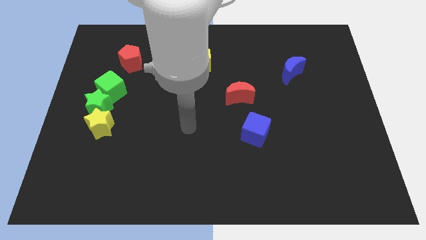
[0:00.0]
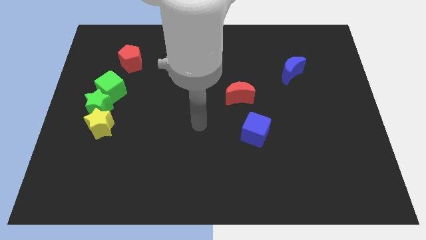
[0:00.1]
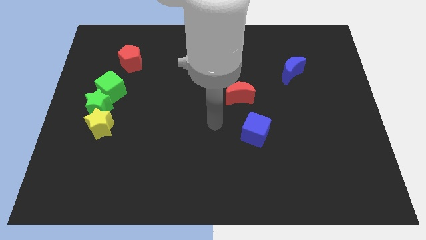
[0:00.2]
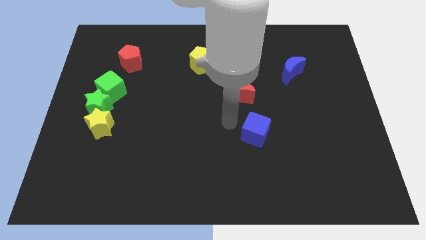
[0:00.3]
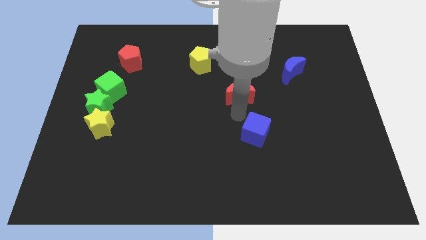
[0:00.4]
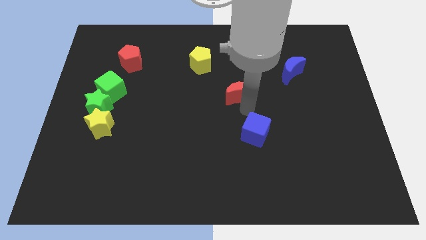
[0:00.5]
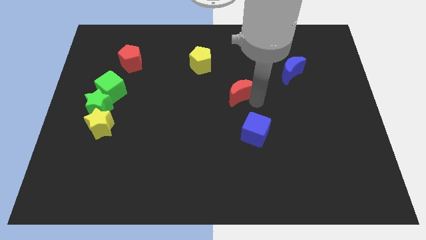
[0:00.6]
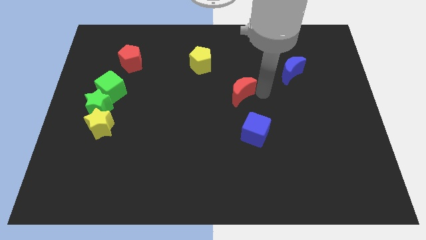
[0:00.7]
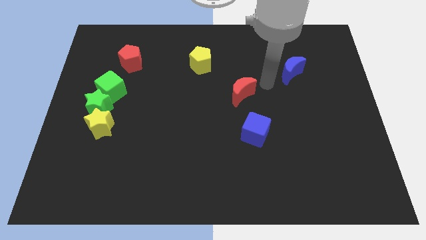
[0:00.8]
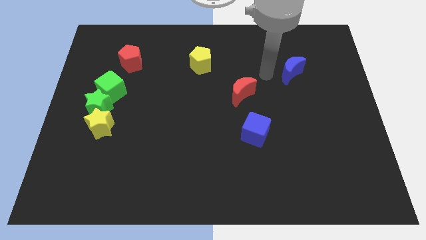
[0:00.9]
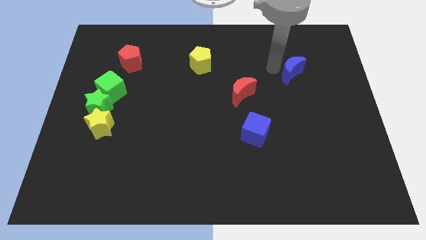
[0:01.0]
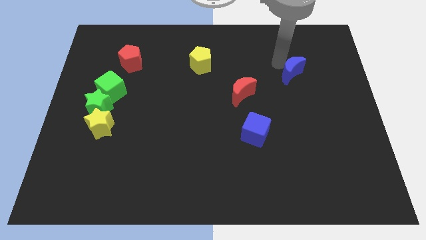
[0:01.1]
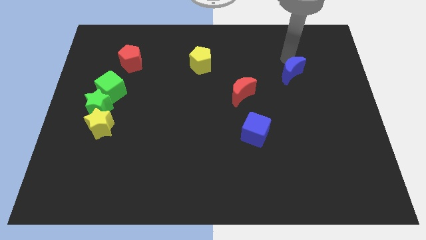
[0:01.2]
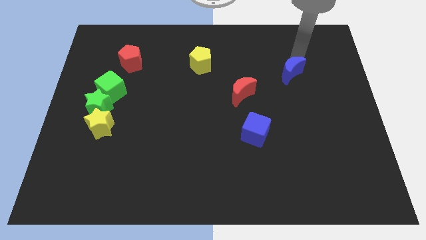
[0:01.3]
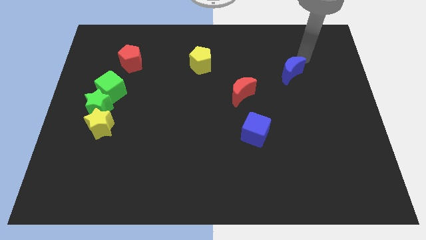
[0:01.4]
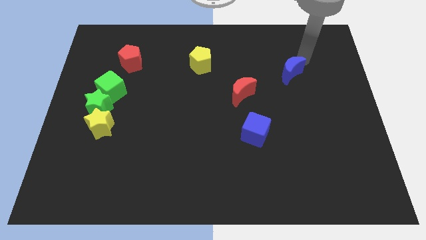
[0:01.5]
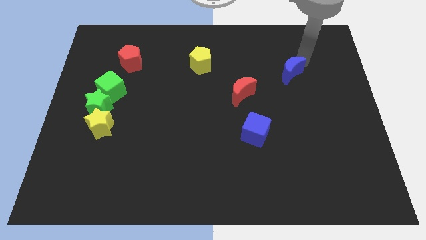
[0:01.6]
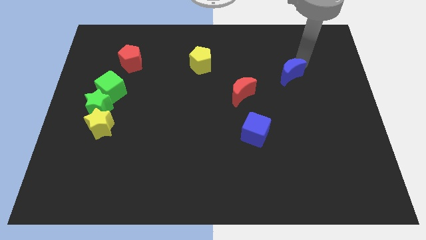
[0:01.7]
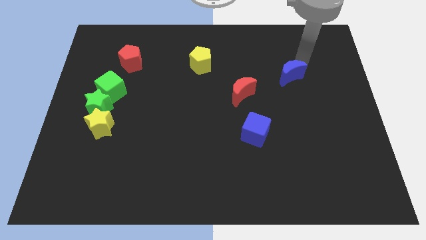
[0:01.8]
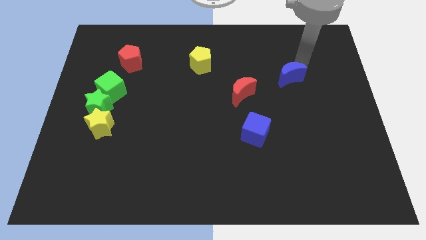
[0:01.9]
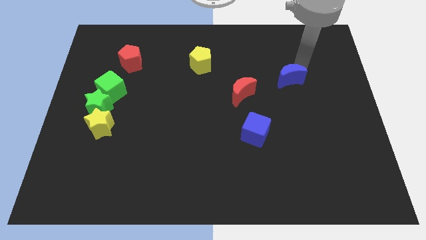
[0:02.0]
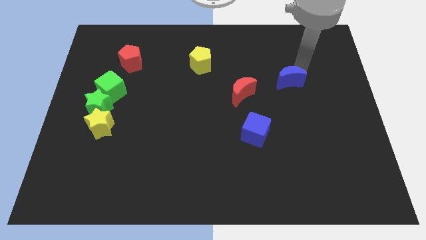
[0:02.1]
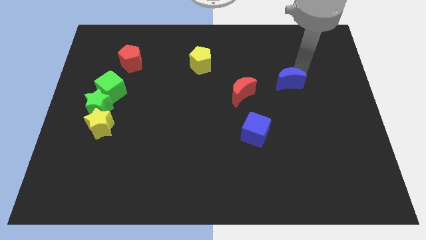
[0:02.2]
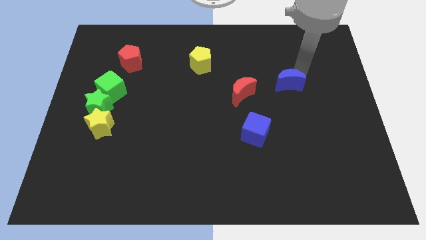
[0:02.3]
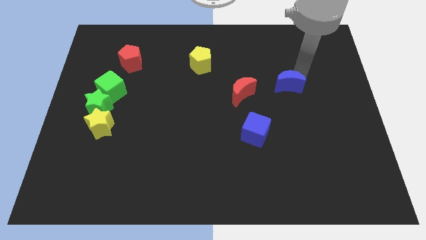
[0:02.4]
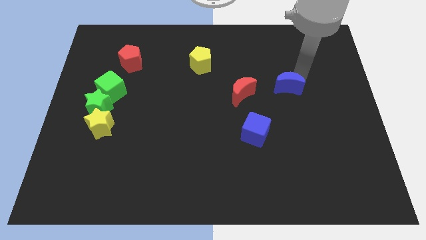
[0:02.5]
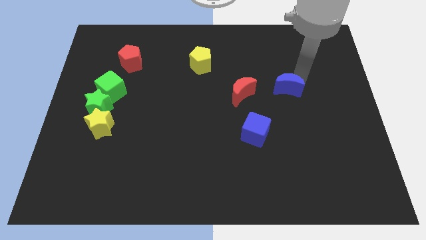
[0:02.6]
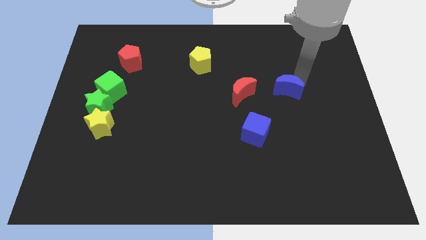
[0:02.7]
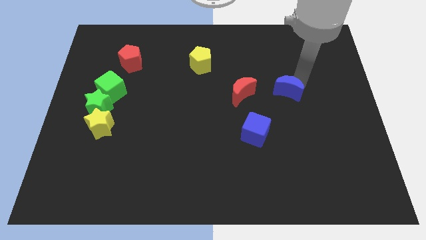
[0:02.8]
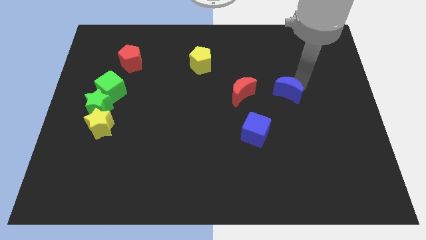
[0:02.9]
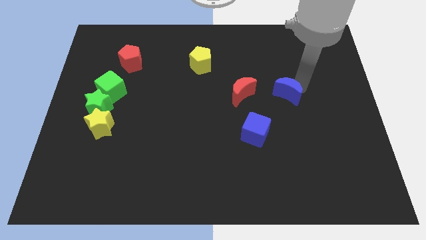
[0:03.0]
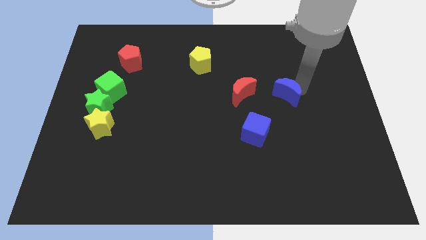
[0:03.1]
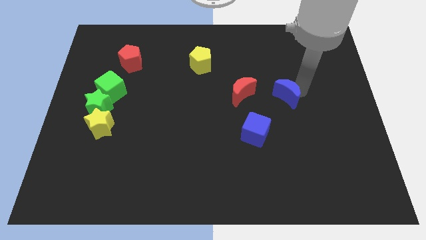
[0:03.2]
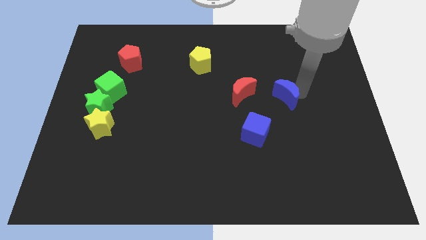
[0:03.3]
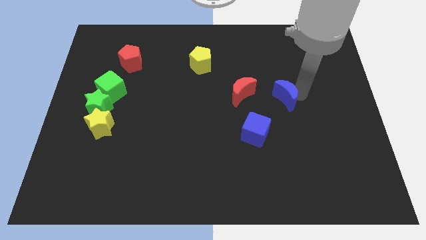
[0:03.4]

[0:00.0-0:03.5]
slightly move the blue moon down and then to the left

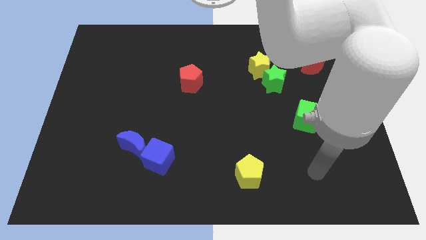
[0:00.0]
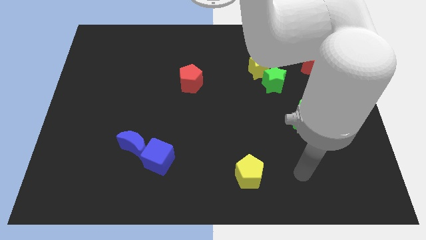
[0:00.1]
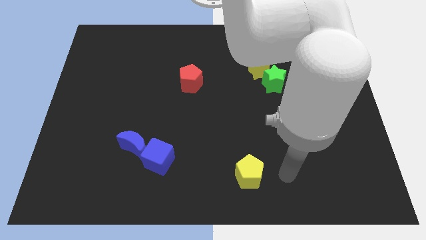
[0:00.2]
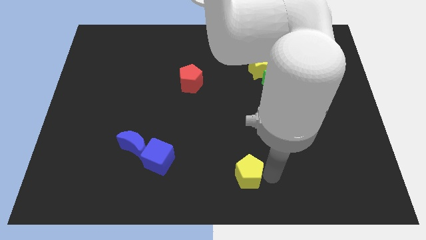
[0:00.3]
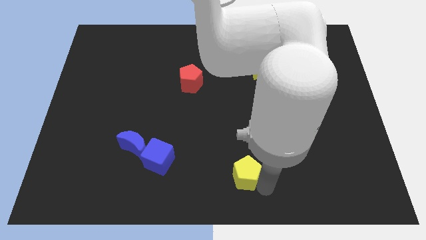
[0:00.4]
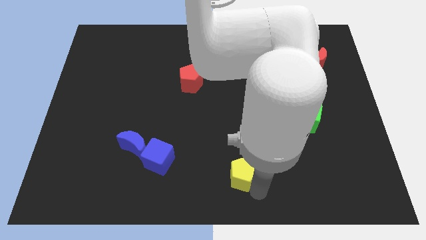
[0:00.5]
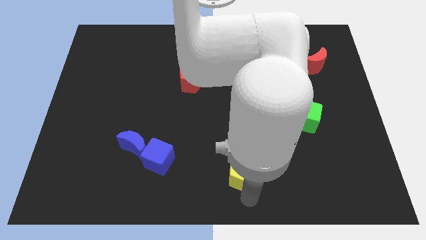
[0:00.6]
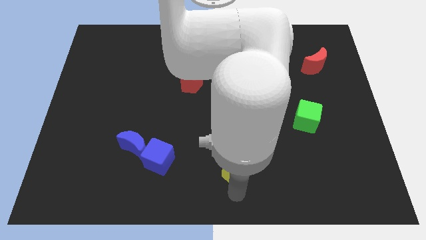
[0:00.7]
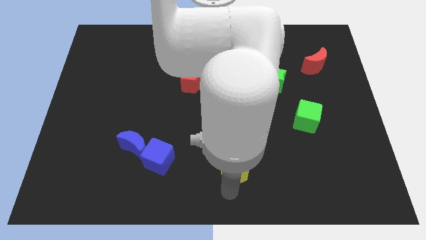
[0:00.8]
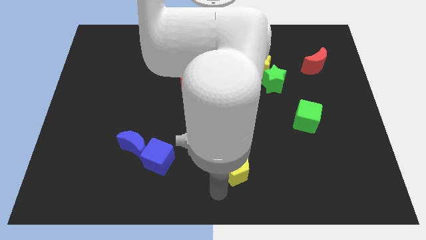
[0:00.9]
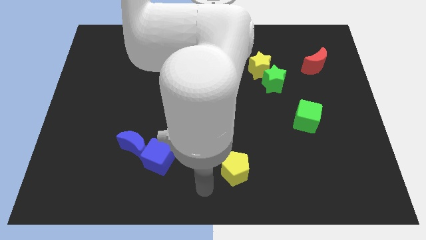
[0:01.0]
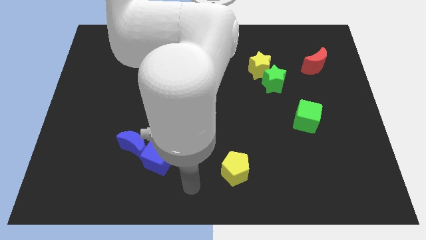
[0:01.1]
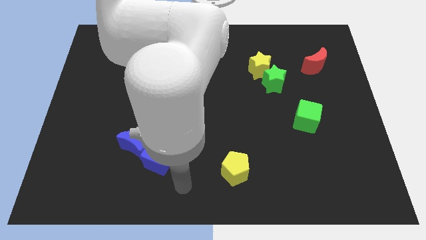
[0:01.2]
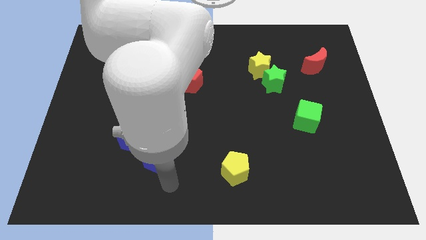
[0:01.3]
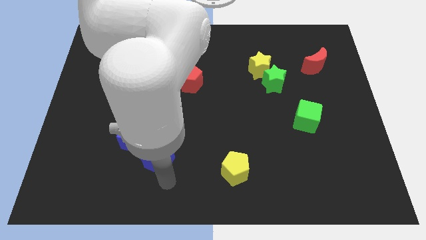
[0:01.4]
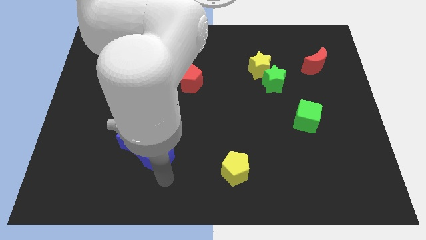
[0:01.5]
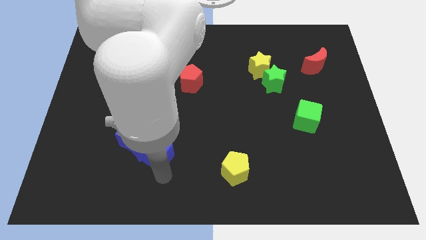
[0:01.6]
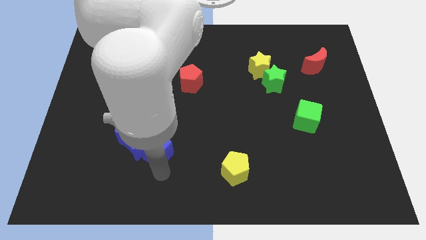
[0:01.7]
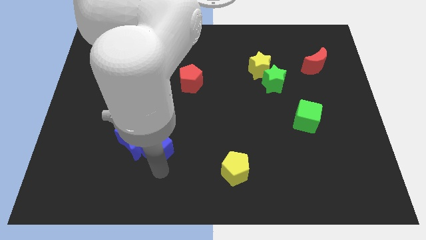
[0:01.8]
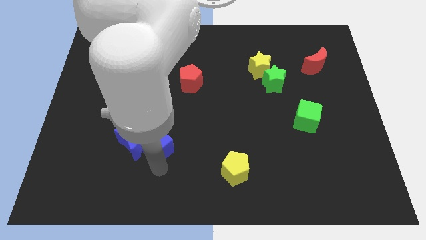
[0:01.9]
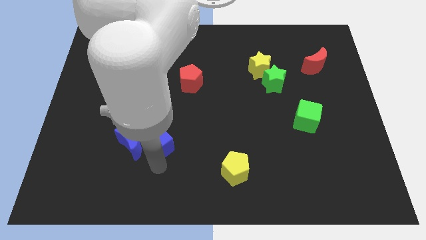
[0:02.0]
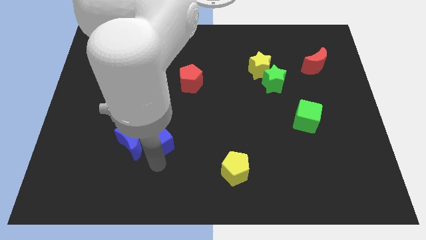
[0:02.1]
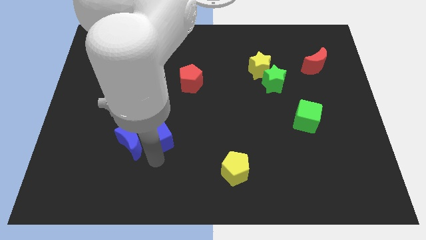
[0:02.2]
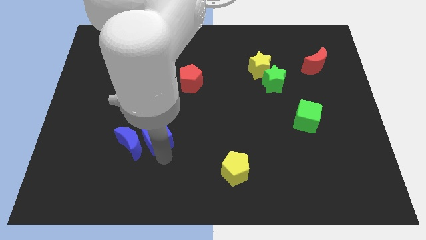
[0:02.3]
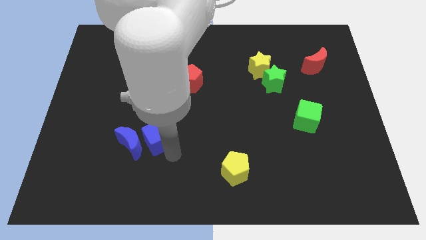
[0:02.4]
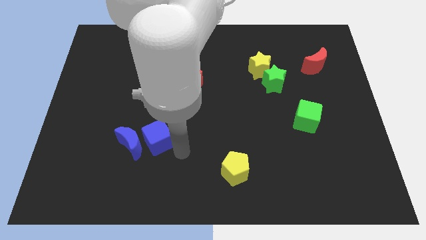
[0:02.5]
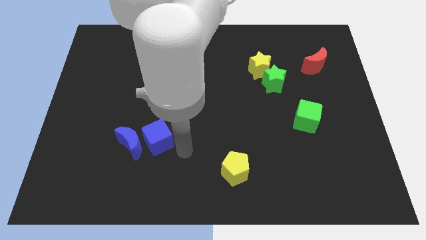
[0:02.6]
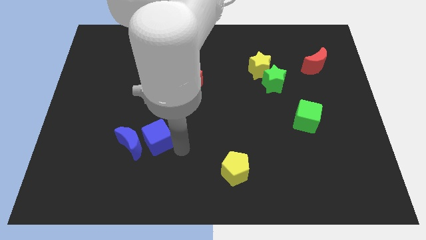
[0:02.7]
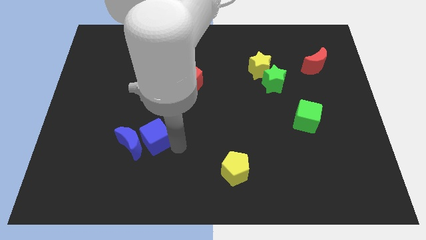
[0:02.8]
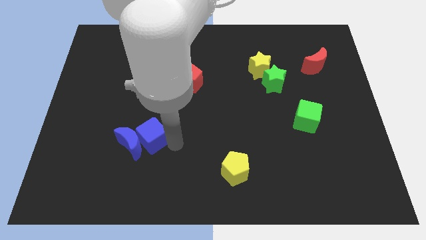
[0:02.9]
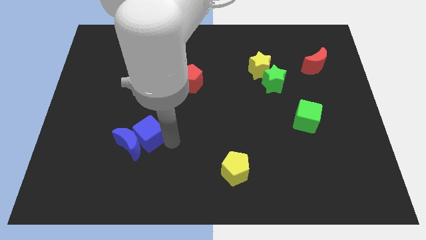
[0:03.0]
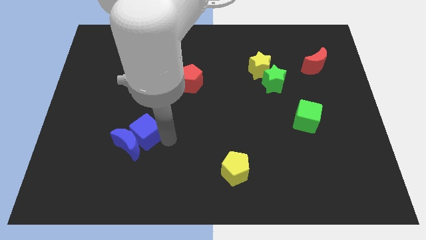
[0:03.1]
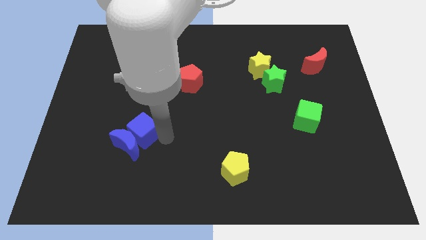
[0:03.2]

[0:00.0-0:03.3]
slide the blue cube a little up and then to the left

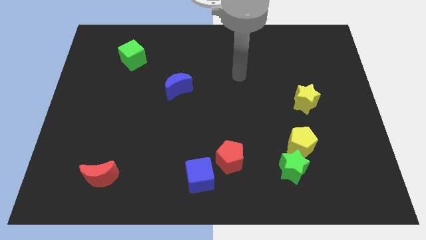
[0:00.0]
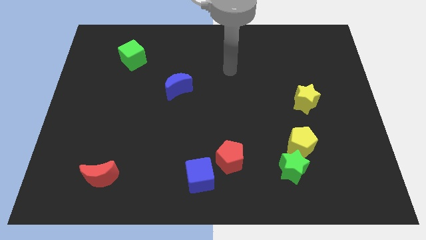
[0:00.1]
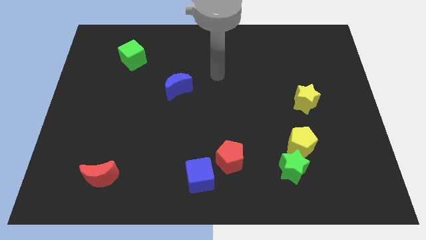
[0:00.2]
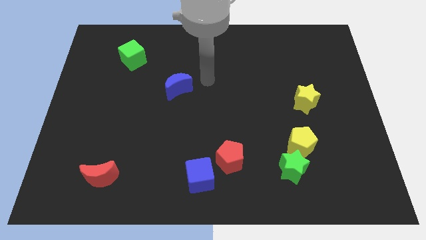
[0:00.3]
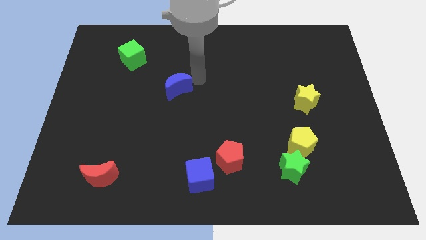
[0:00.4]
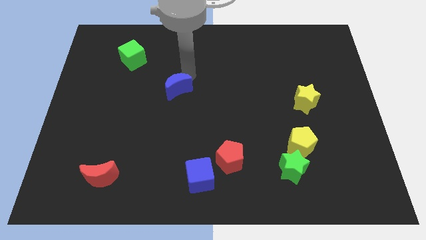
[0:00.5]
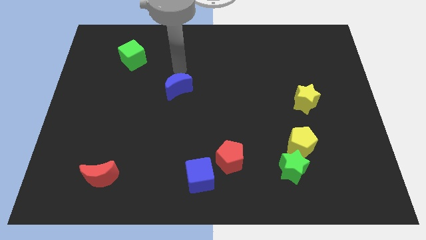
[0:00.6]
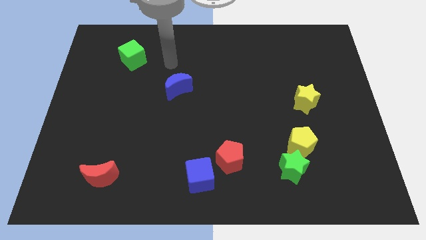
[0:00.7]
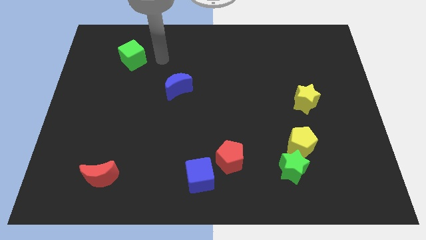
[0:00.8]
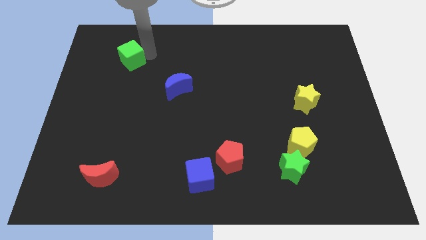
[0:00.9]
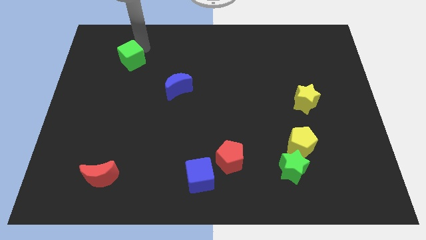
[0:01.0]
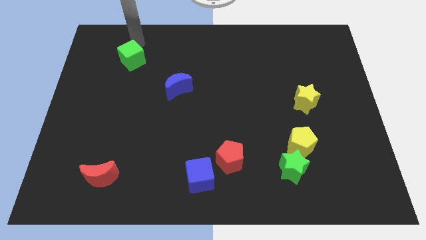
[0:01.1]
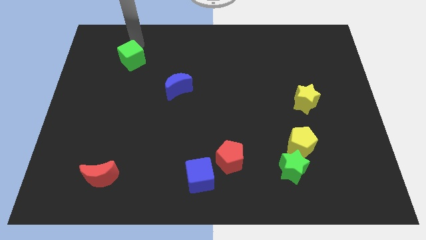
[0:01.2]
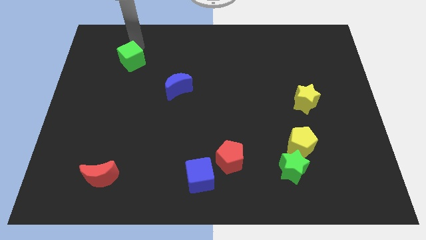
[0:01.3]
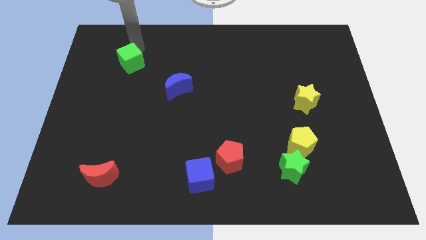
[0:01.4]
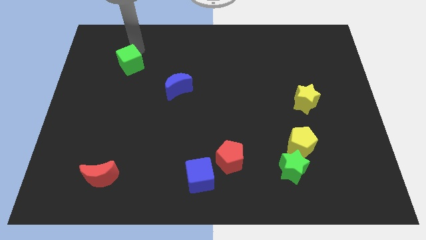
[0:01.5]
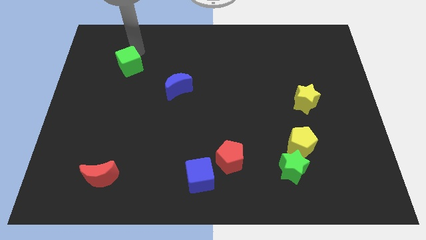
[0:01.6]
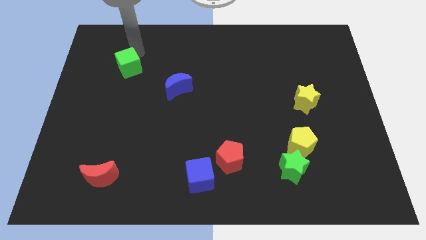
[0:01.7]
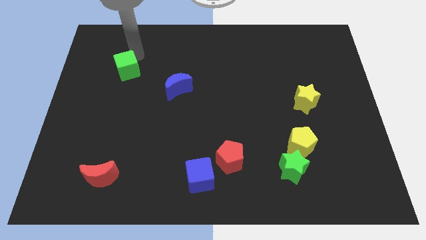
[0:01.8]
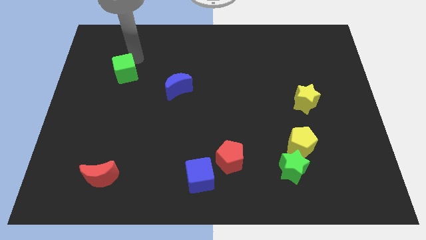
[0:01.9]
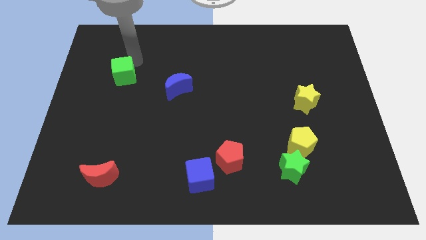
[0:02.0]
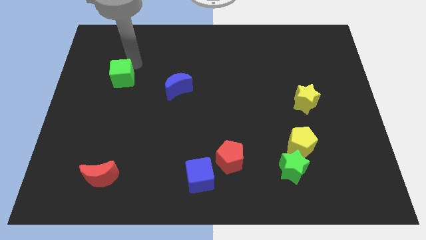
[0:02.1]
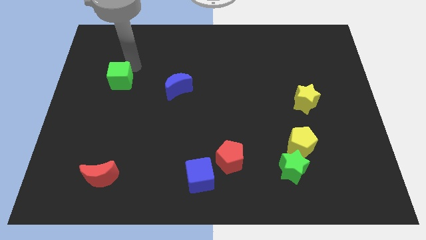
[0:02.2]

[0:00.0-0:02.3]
slightly move the green cube down
